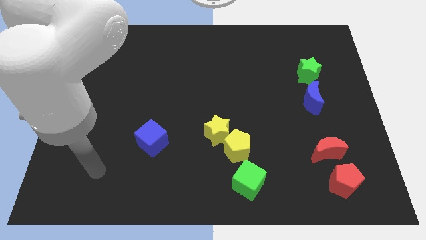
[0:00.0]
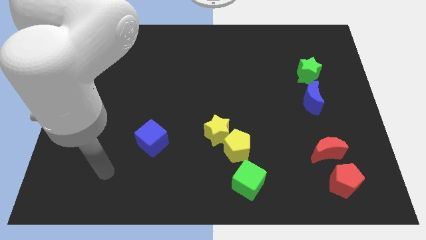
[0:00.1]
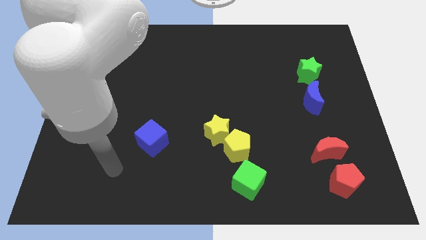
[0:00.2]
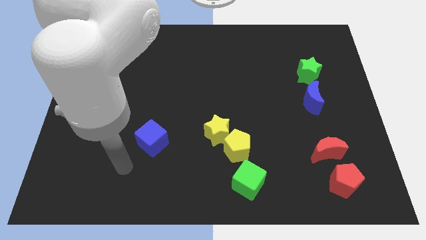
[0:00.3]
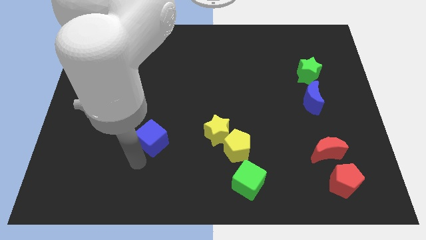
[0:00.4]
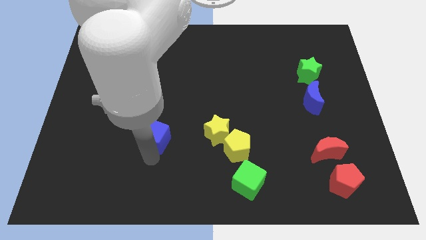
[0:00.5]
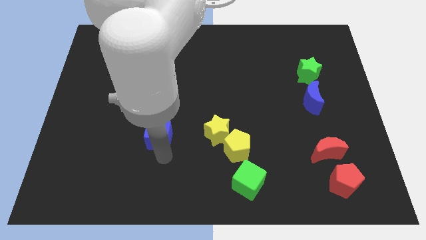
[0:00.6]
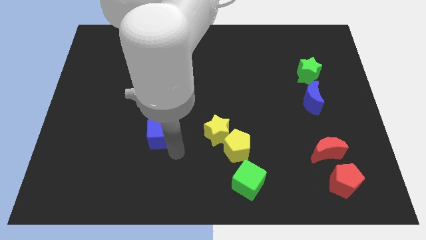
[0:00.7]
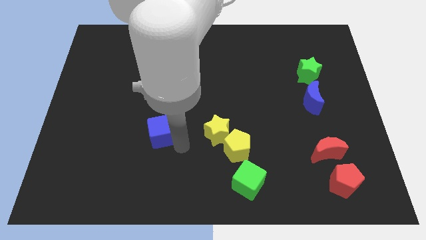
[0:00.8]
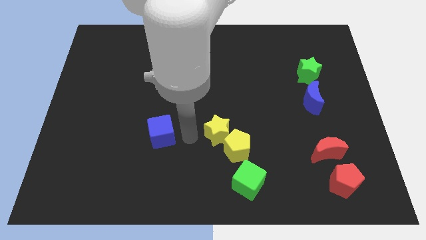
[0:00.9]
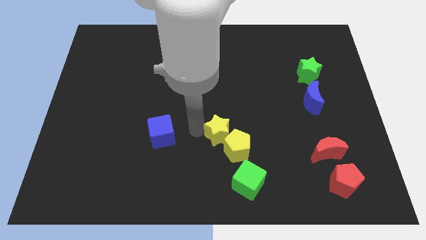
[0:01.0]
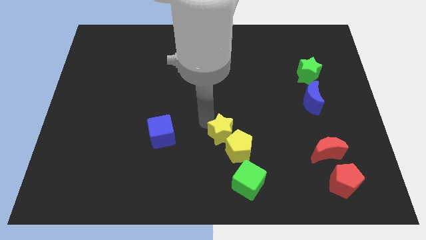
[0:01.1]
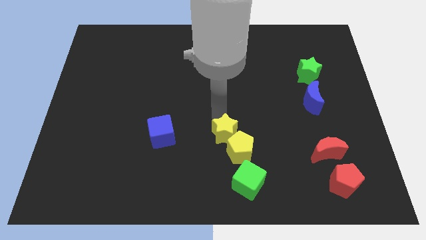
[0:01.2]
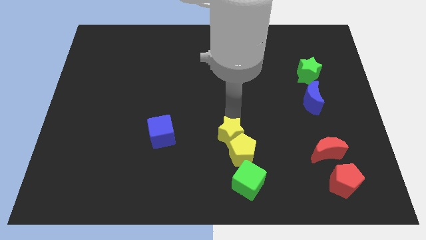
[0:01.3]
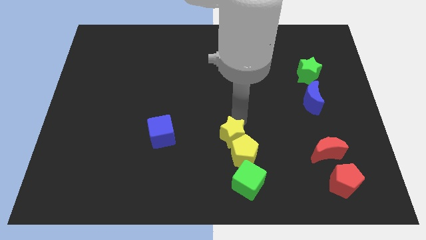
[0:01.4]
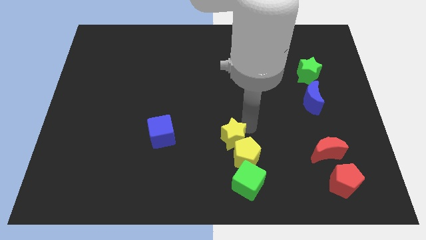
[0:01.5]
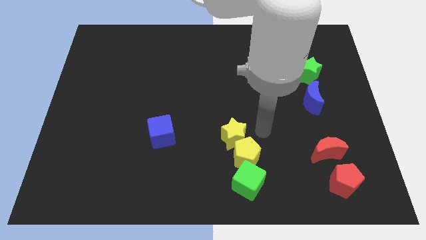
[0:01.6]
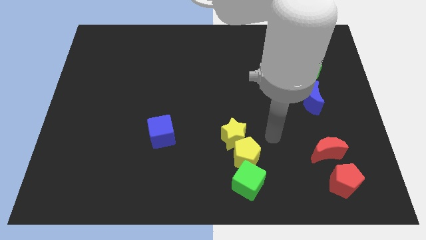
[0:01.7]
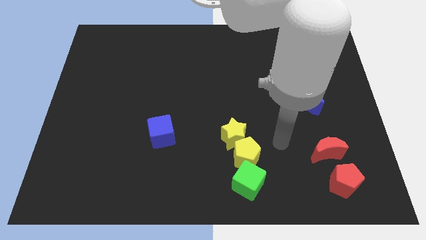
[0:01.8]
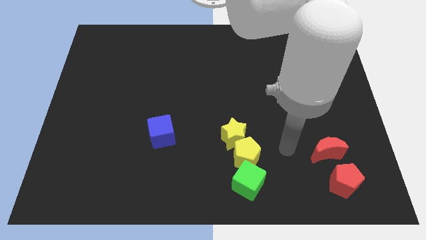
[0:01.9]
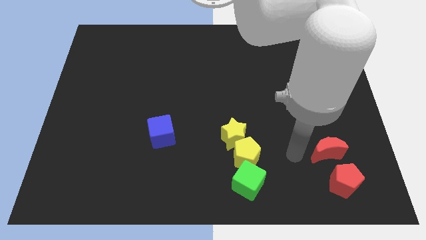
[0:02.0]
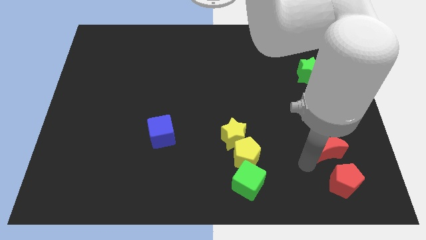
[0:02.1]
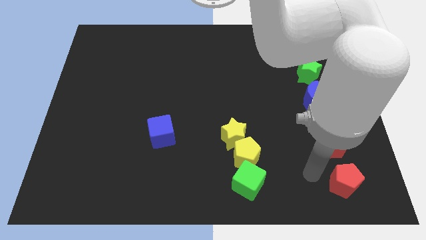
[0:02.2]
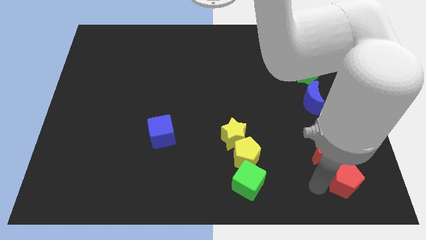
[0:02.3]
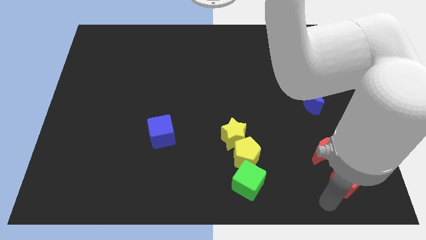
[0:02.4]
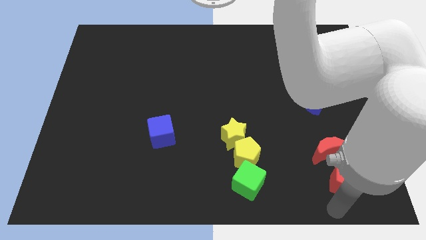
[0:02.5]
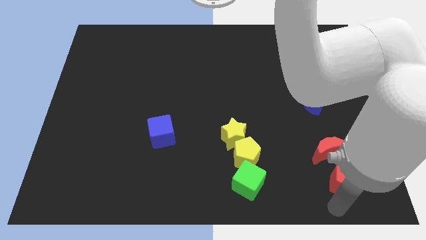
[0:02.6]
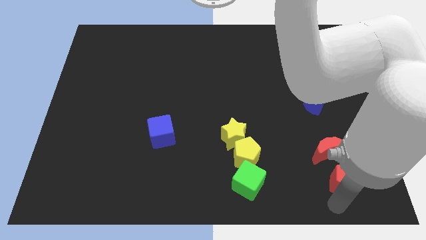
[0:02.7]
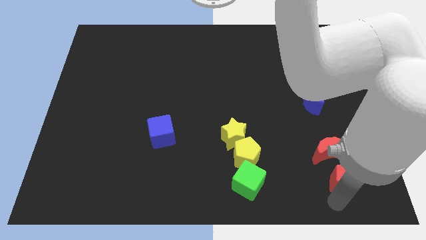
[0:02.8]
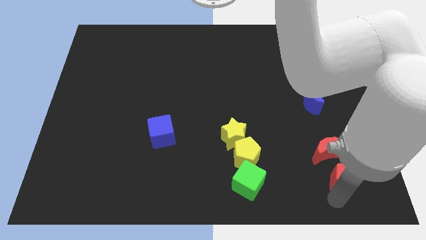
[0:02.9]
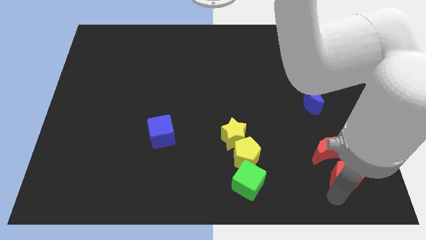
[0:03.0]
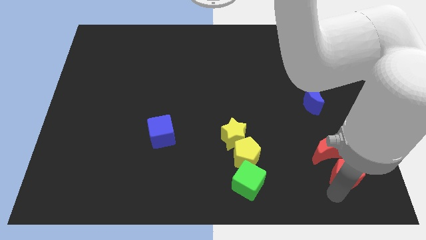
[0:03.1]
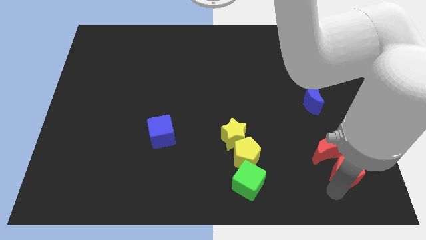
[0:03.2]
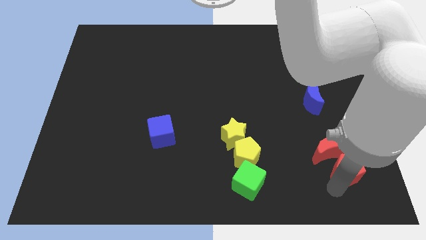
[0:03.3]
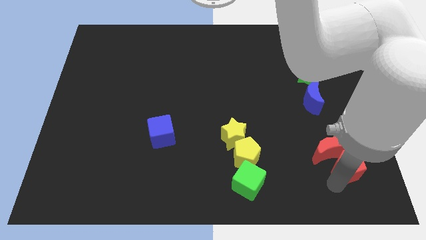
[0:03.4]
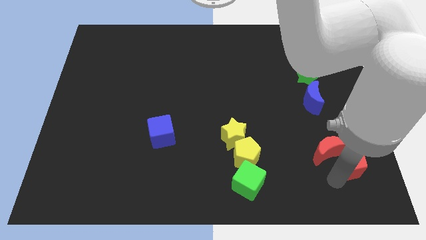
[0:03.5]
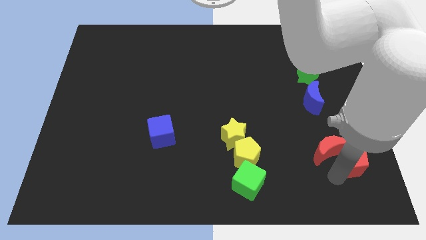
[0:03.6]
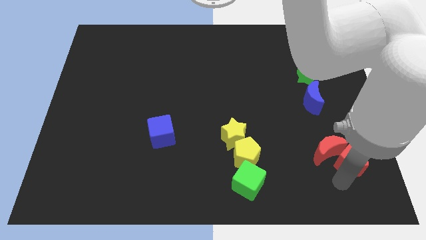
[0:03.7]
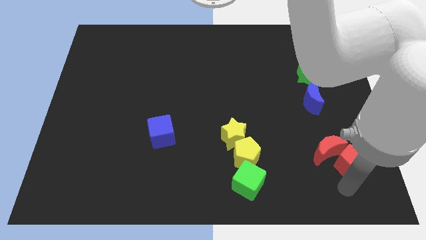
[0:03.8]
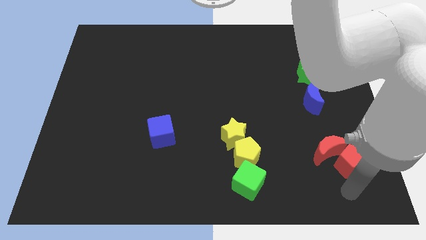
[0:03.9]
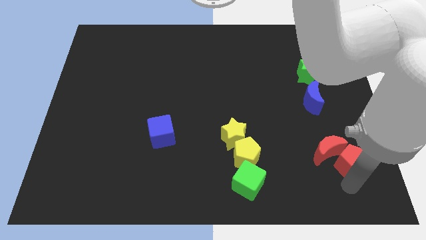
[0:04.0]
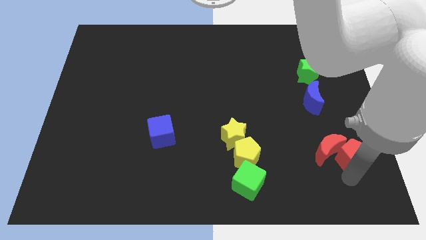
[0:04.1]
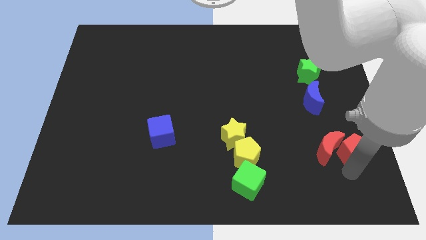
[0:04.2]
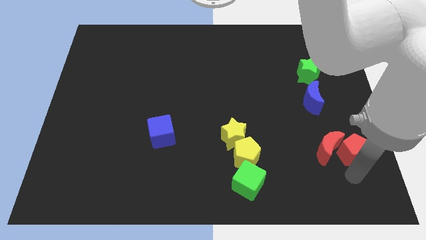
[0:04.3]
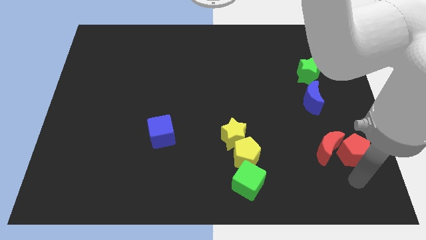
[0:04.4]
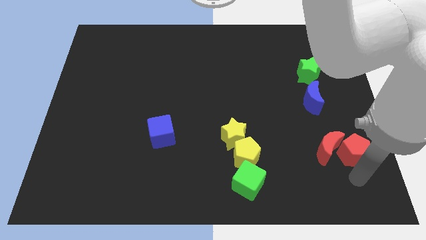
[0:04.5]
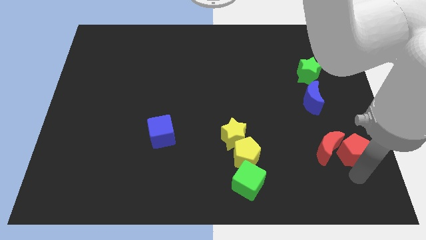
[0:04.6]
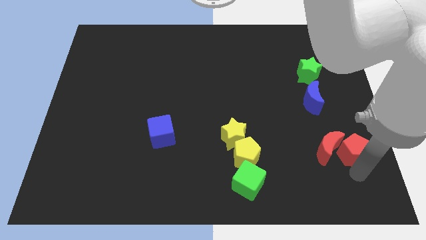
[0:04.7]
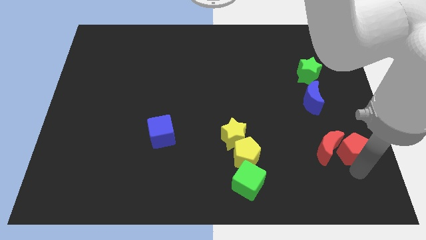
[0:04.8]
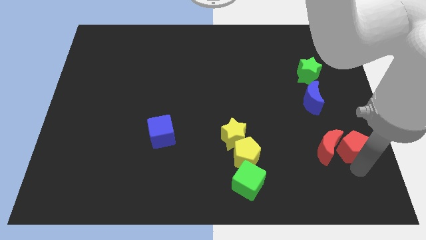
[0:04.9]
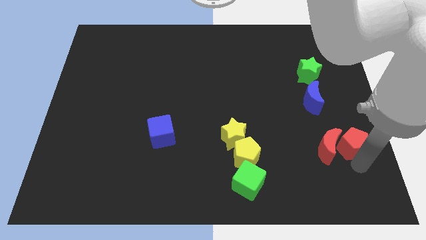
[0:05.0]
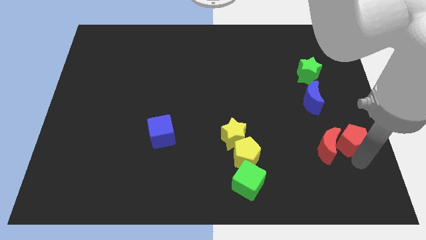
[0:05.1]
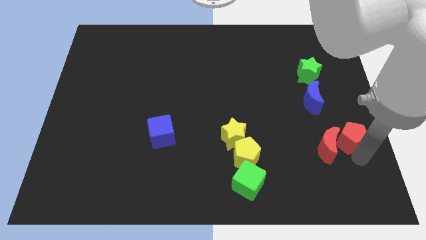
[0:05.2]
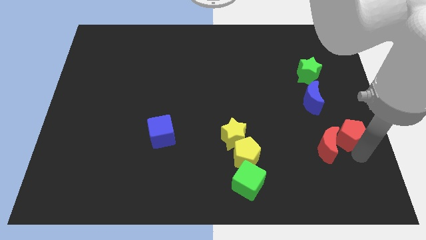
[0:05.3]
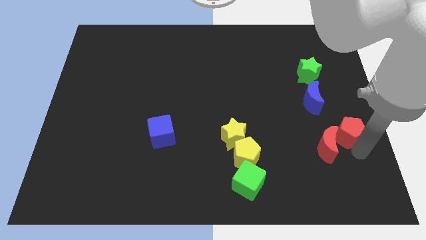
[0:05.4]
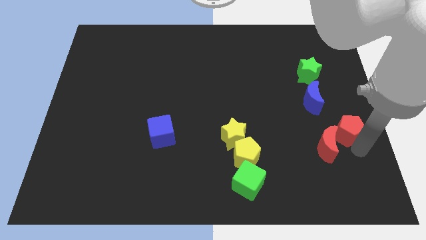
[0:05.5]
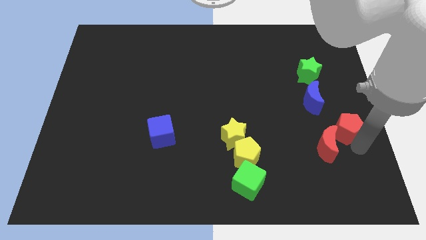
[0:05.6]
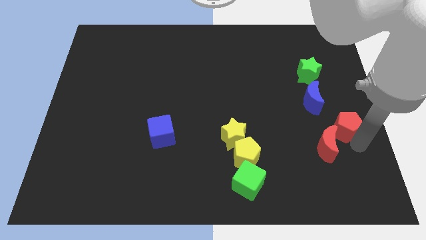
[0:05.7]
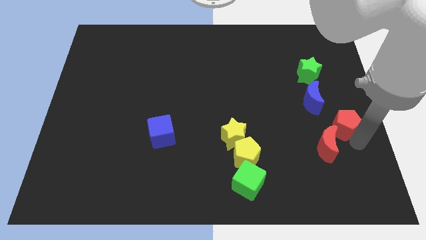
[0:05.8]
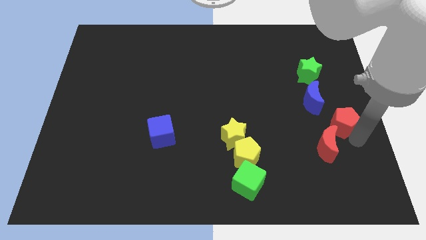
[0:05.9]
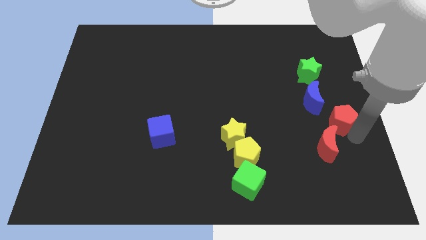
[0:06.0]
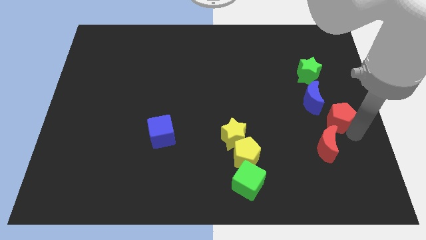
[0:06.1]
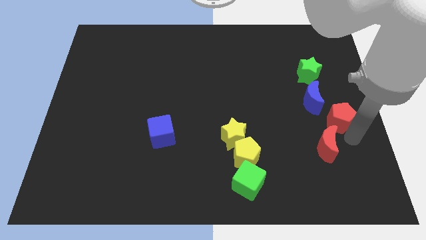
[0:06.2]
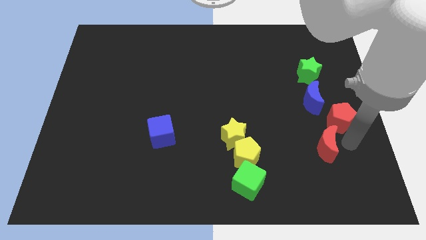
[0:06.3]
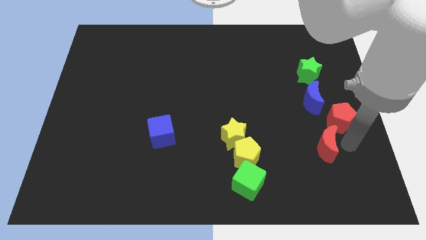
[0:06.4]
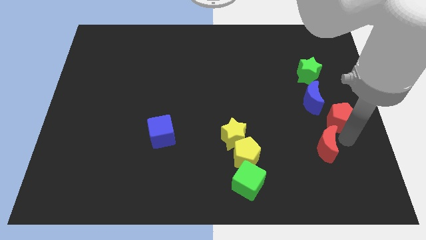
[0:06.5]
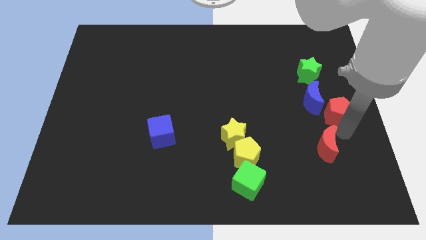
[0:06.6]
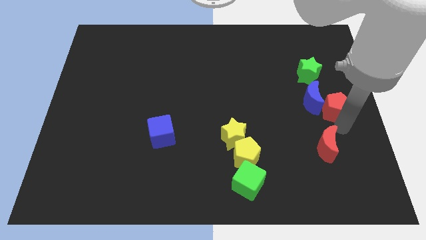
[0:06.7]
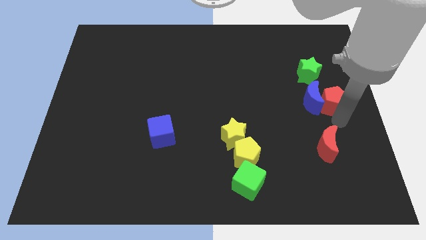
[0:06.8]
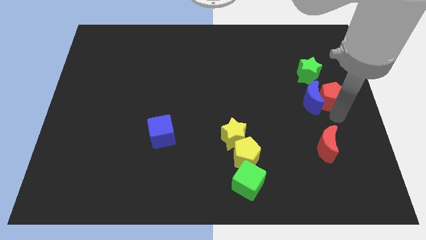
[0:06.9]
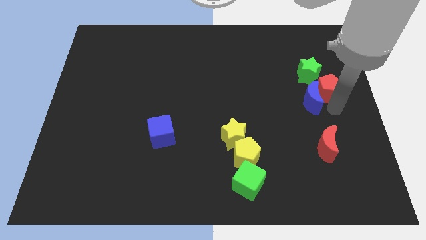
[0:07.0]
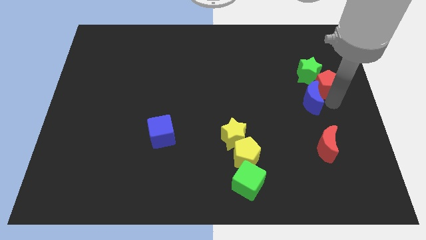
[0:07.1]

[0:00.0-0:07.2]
push the red pentagon close to the green star
